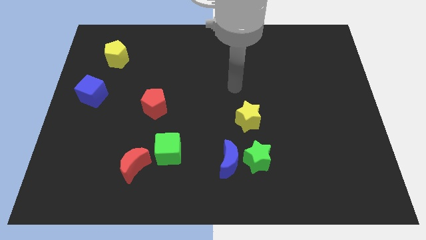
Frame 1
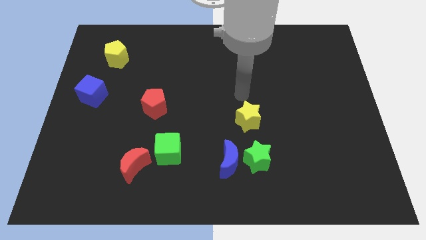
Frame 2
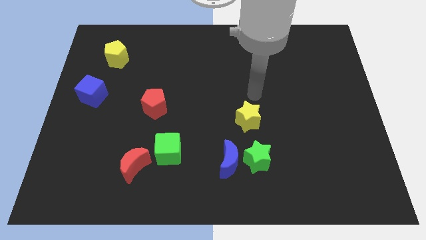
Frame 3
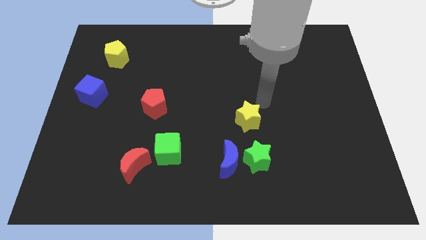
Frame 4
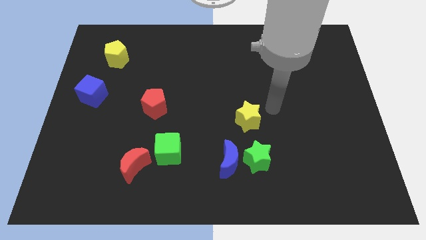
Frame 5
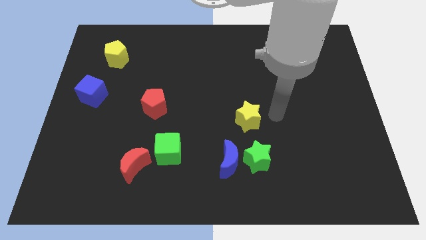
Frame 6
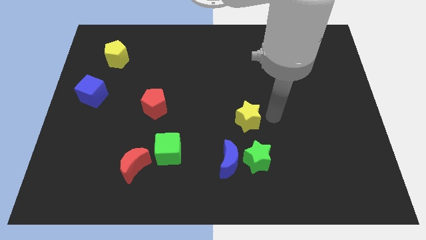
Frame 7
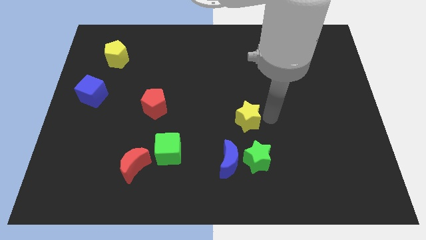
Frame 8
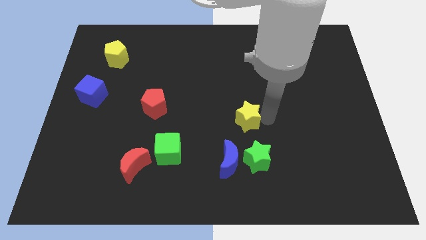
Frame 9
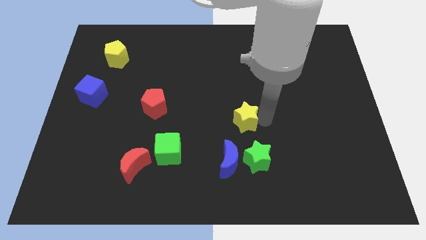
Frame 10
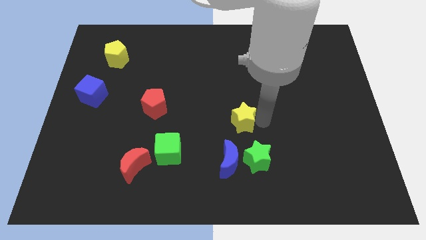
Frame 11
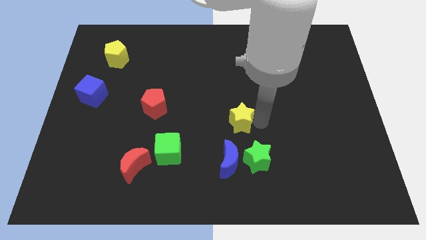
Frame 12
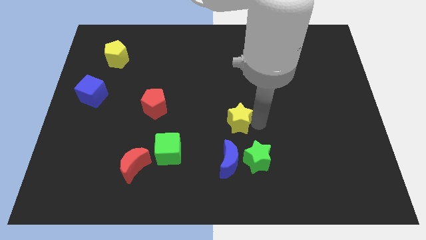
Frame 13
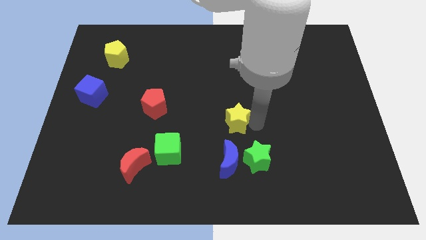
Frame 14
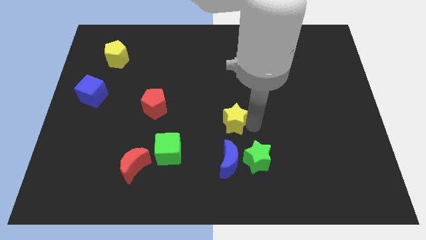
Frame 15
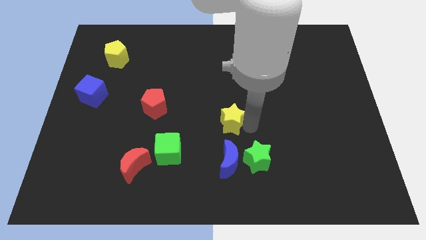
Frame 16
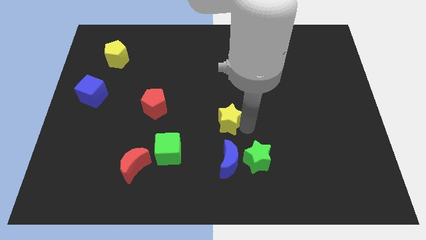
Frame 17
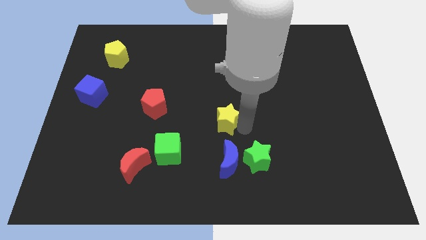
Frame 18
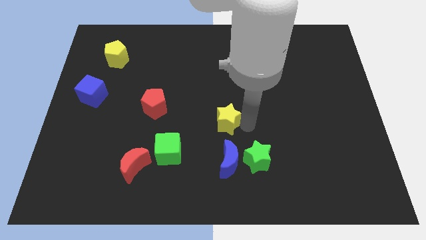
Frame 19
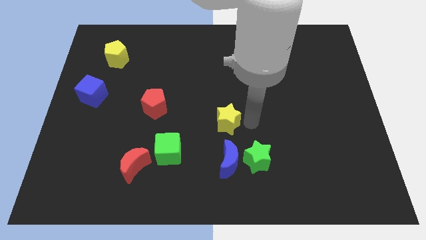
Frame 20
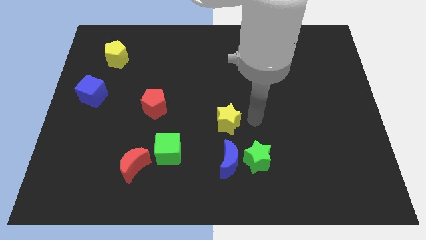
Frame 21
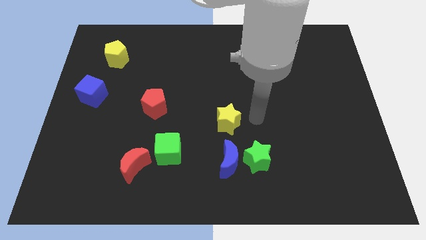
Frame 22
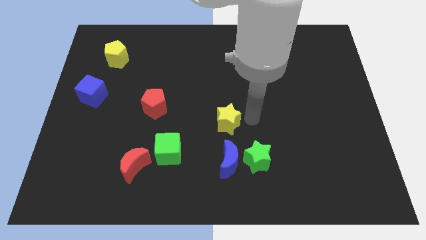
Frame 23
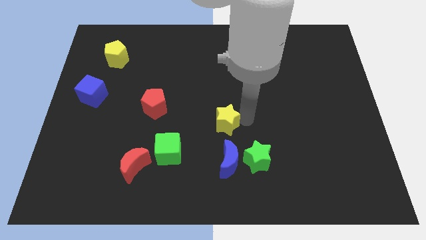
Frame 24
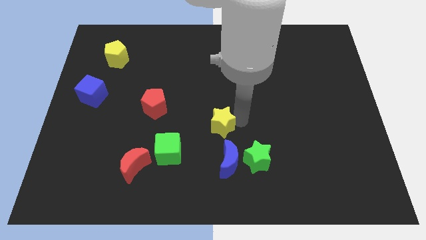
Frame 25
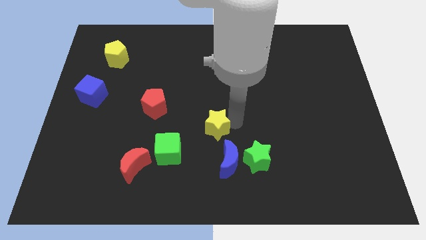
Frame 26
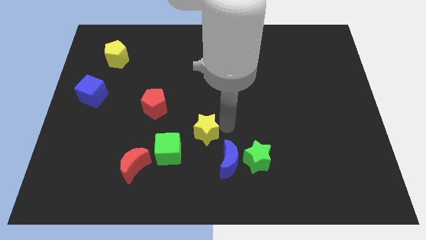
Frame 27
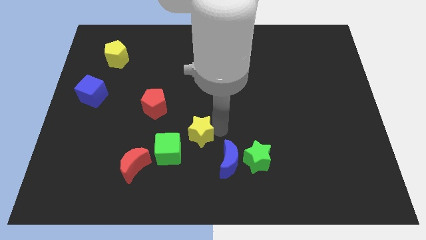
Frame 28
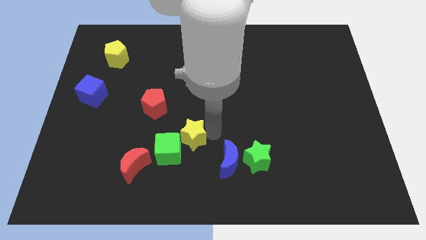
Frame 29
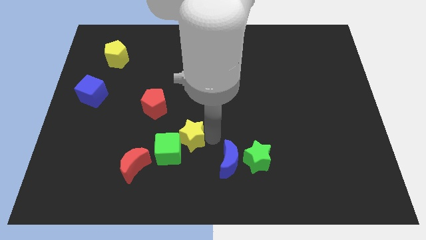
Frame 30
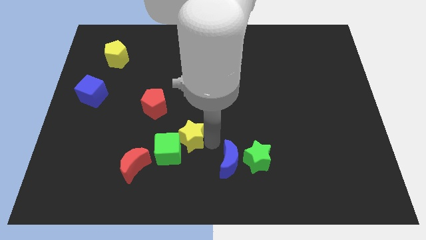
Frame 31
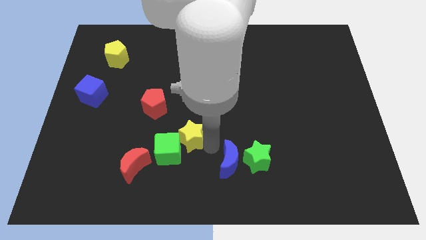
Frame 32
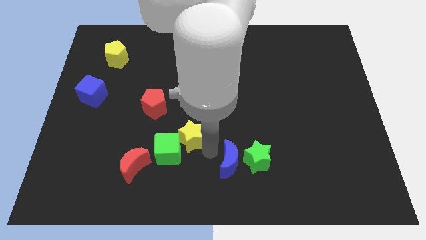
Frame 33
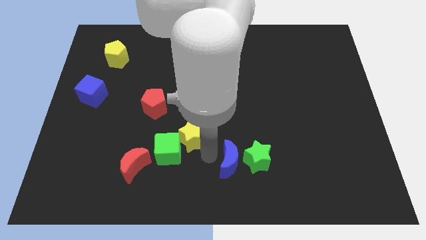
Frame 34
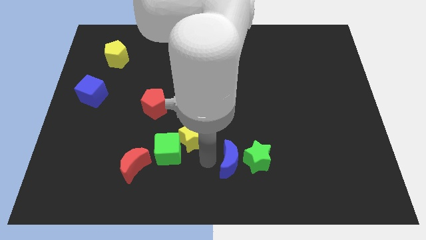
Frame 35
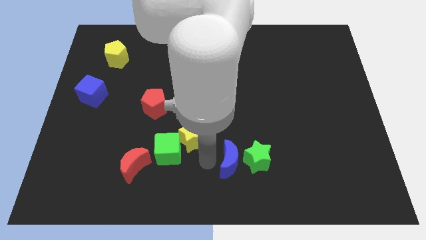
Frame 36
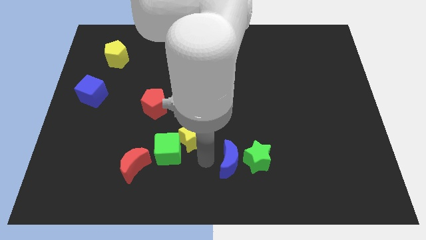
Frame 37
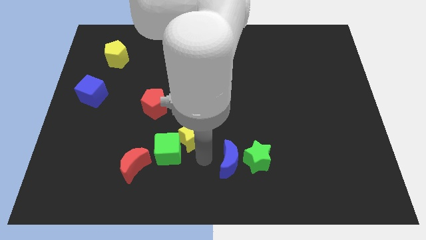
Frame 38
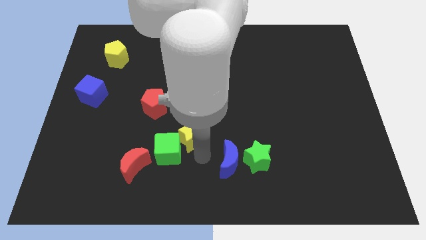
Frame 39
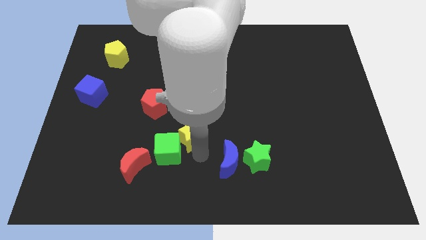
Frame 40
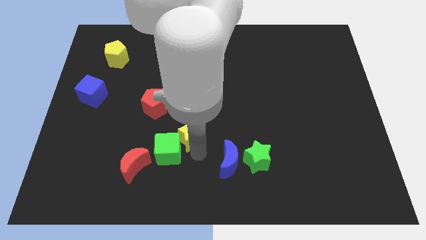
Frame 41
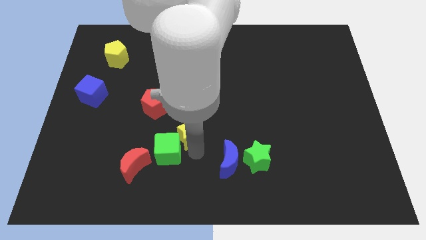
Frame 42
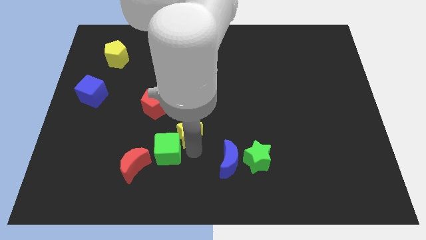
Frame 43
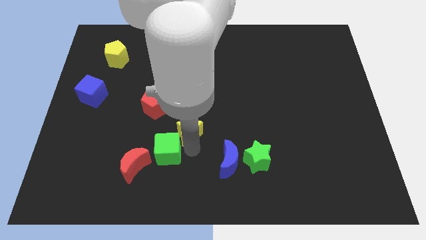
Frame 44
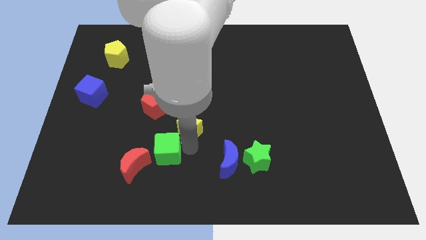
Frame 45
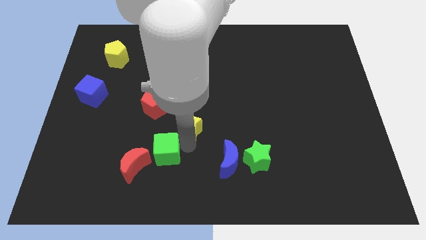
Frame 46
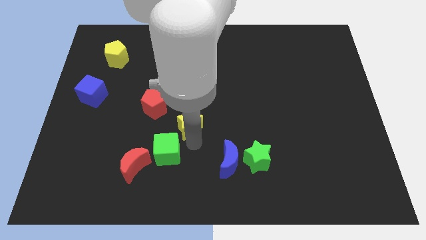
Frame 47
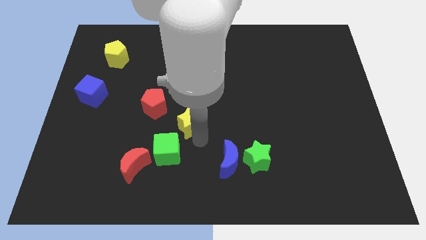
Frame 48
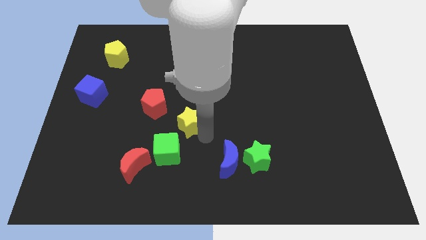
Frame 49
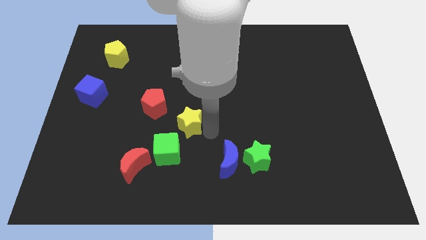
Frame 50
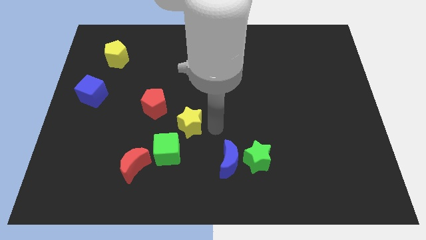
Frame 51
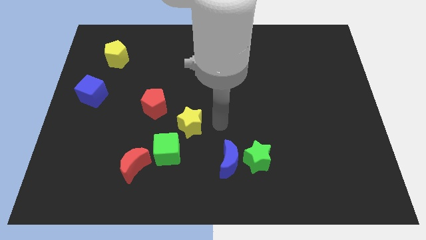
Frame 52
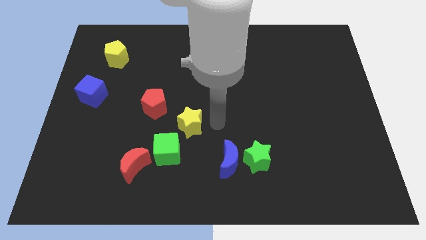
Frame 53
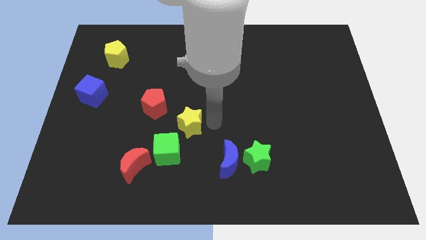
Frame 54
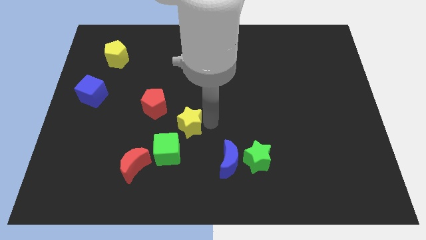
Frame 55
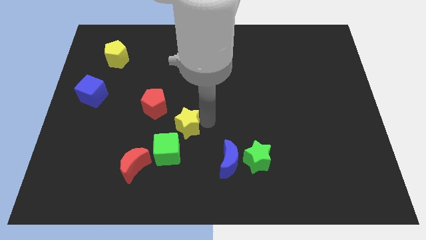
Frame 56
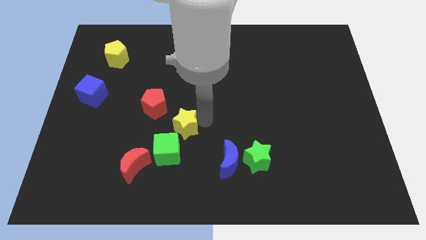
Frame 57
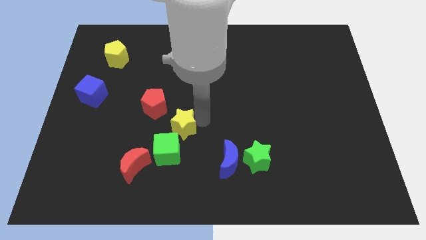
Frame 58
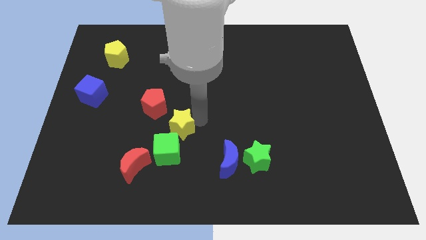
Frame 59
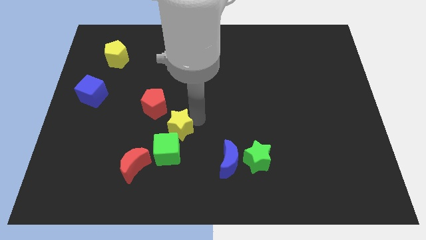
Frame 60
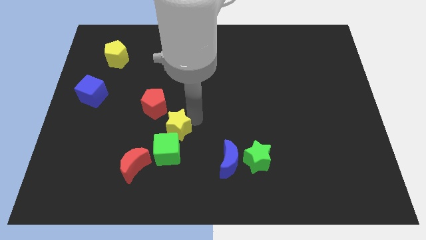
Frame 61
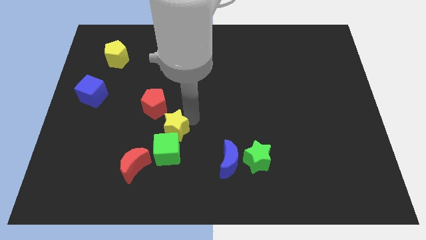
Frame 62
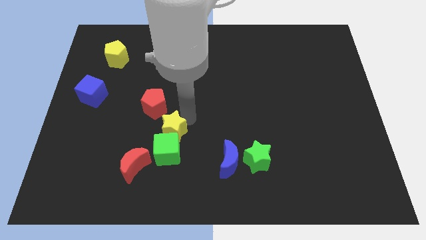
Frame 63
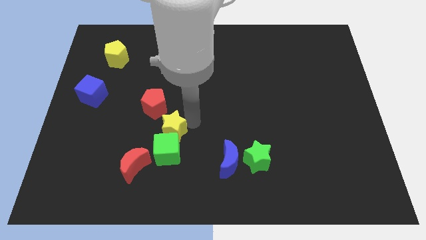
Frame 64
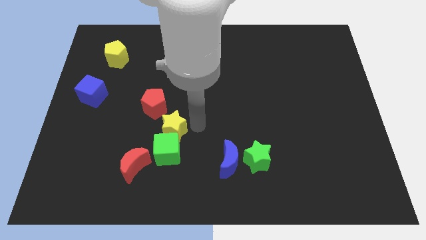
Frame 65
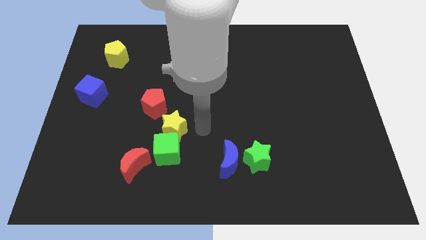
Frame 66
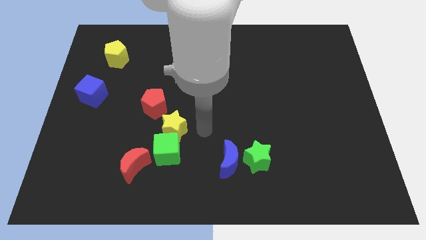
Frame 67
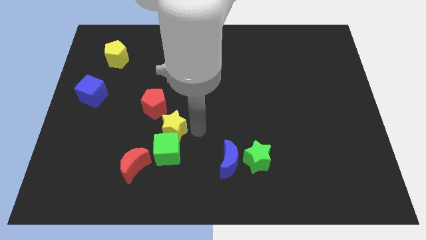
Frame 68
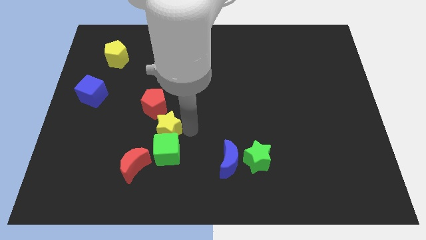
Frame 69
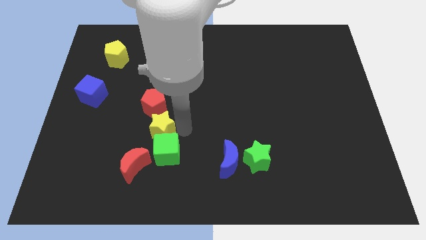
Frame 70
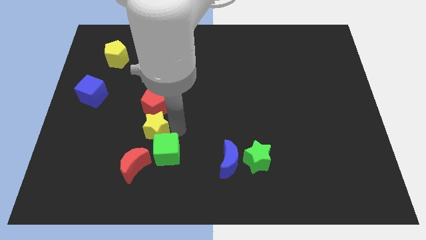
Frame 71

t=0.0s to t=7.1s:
slide the yellow star to the left

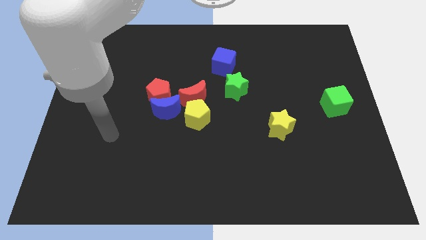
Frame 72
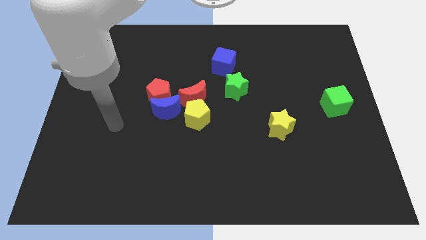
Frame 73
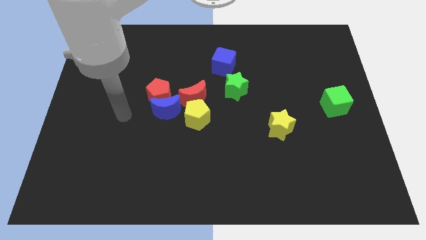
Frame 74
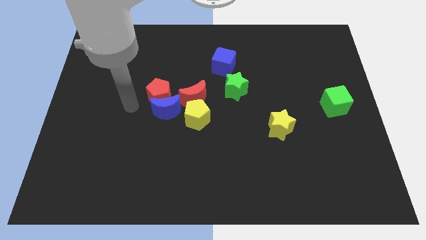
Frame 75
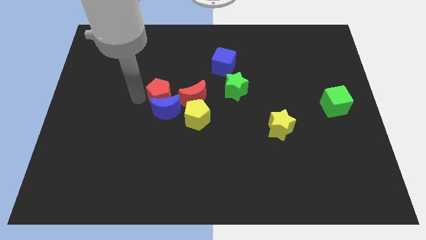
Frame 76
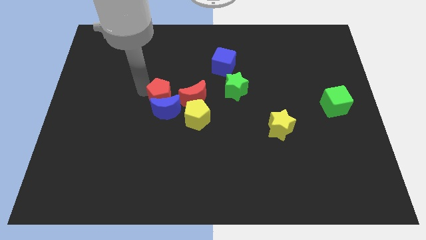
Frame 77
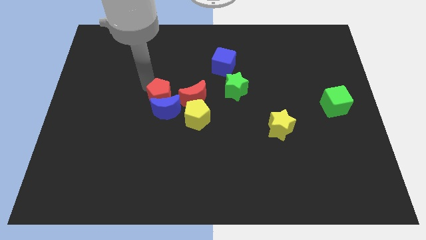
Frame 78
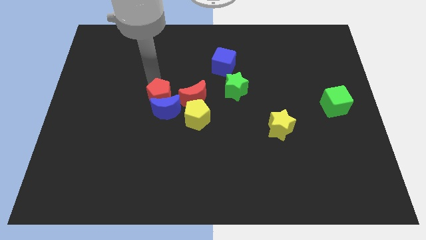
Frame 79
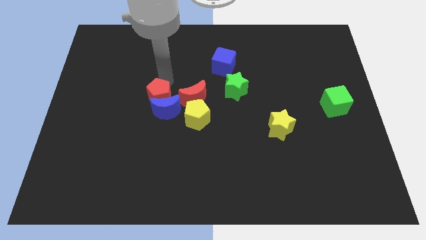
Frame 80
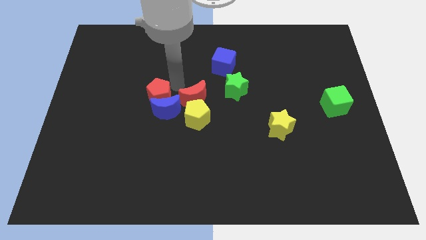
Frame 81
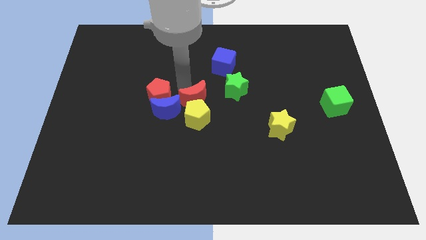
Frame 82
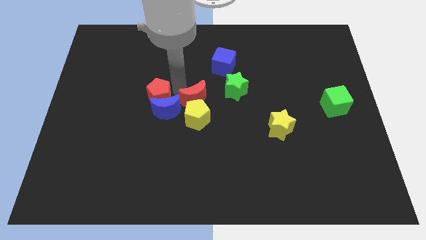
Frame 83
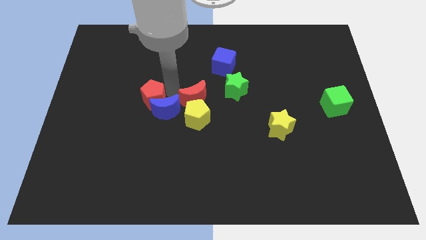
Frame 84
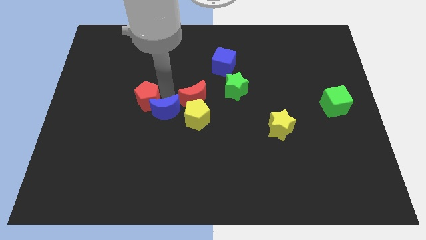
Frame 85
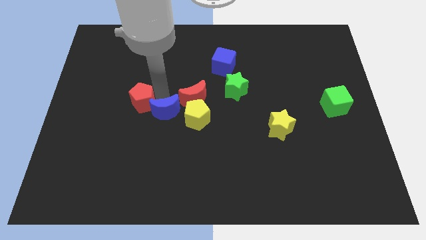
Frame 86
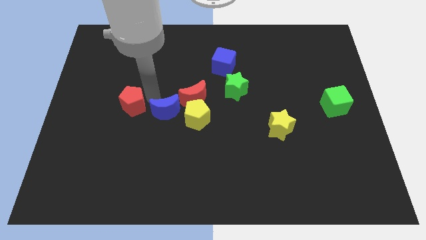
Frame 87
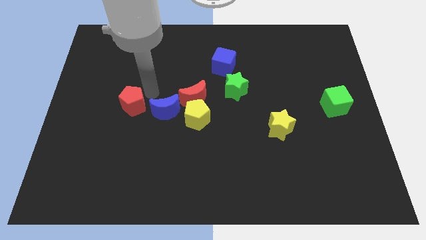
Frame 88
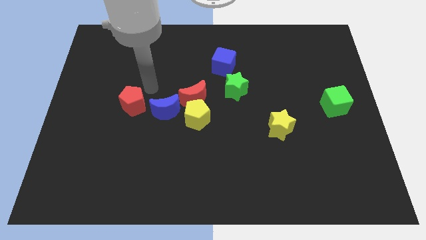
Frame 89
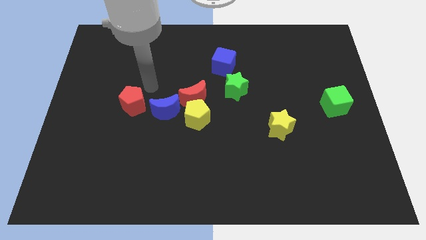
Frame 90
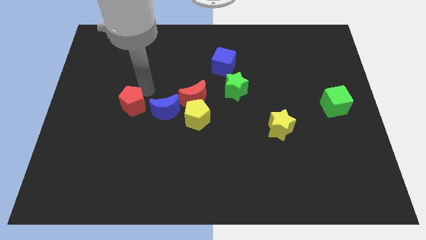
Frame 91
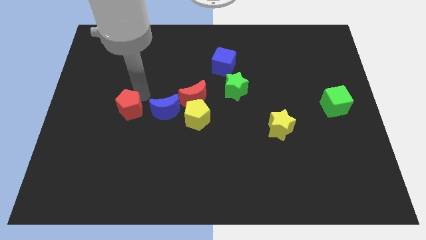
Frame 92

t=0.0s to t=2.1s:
slightly push the red pentagon downwards and then left
